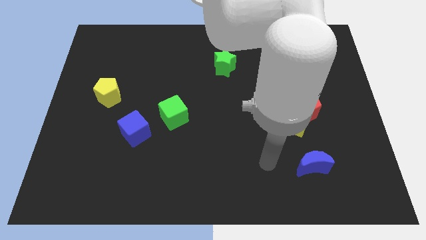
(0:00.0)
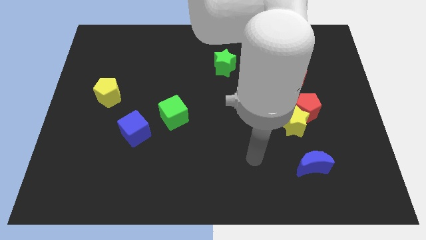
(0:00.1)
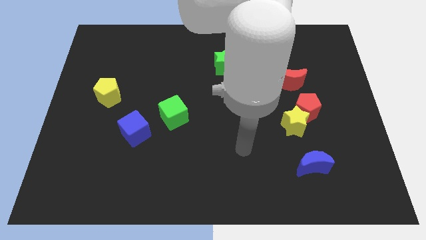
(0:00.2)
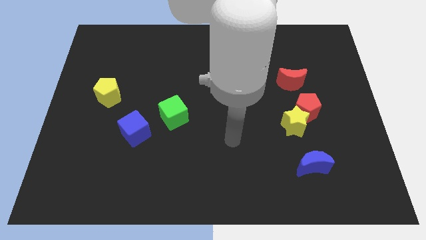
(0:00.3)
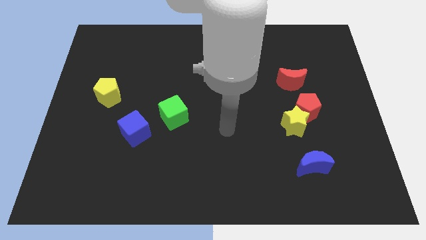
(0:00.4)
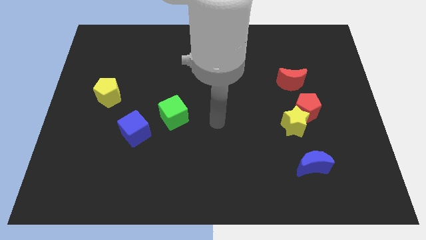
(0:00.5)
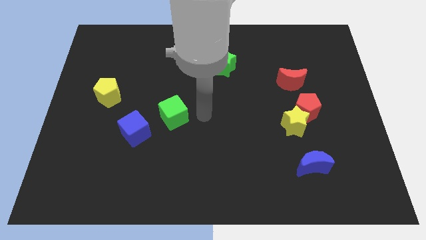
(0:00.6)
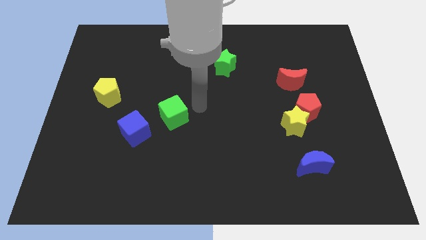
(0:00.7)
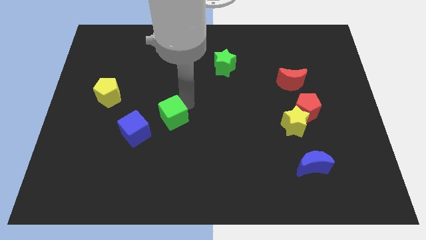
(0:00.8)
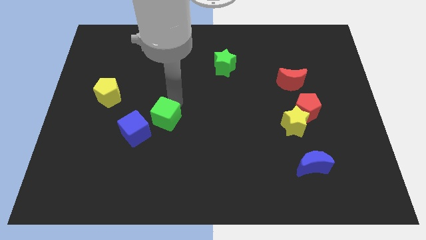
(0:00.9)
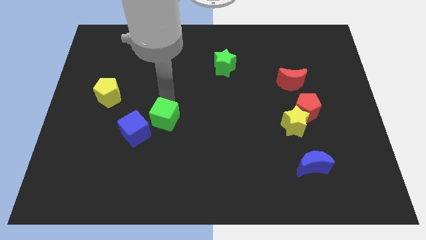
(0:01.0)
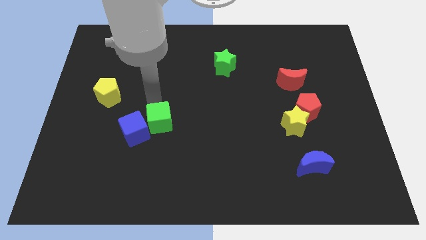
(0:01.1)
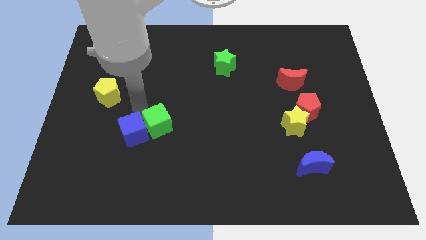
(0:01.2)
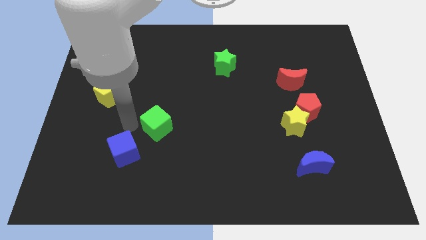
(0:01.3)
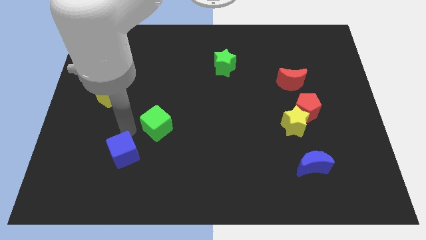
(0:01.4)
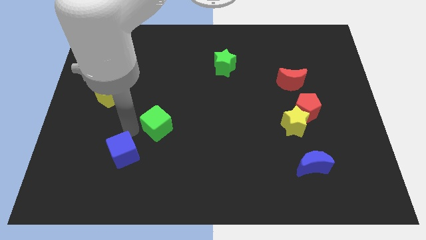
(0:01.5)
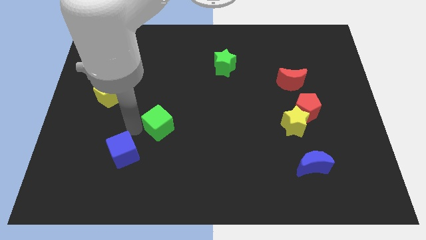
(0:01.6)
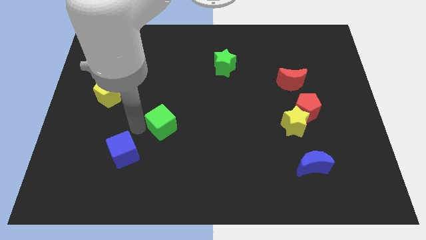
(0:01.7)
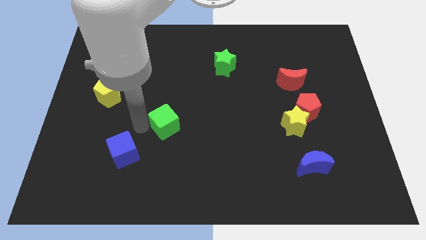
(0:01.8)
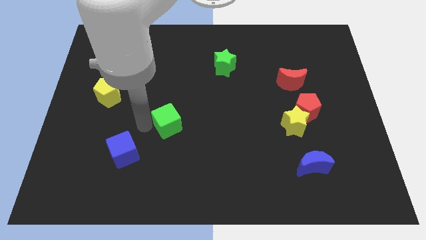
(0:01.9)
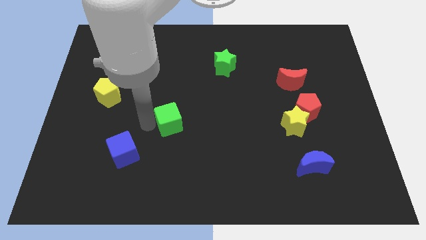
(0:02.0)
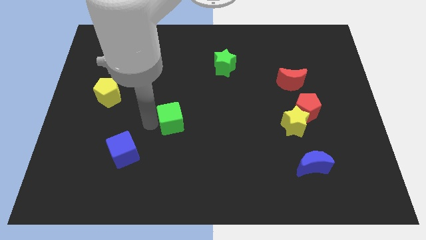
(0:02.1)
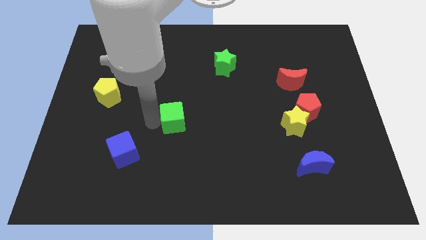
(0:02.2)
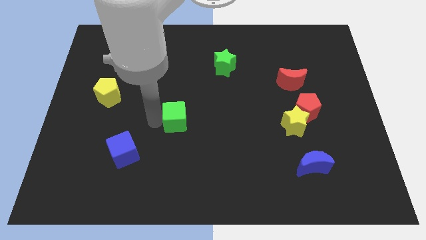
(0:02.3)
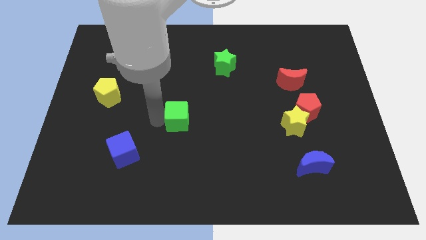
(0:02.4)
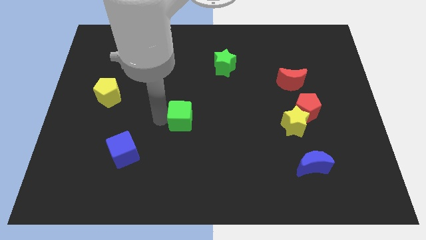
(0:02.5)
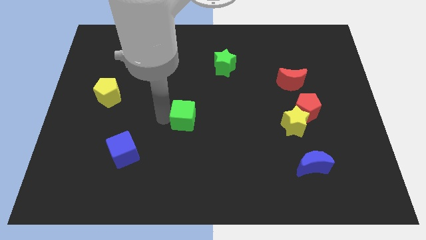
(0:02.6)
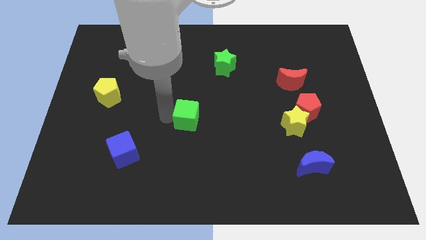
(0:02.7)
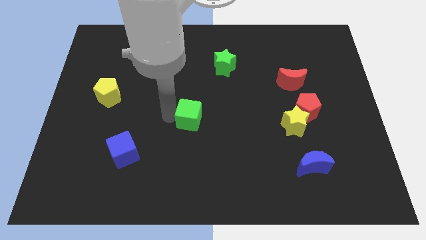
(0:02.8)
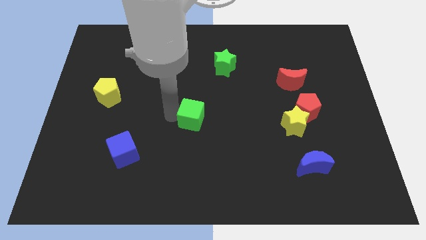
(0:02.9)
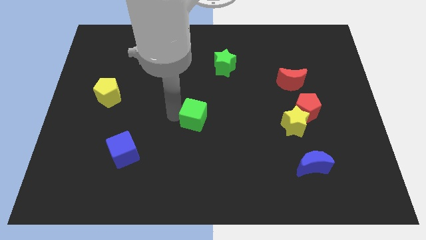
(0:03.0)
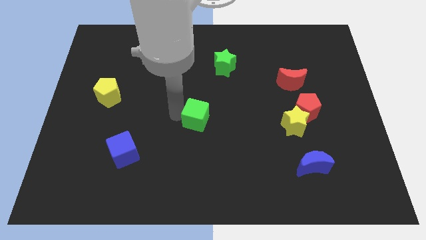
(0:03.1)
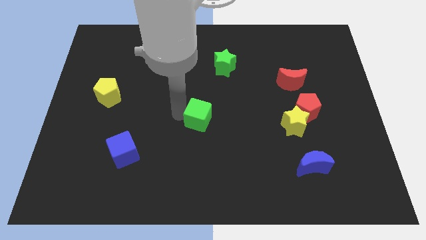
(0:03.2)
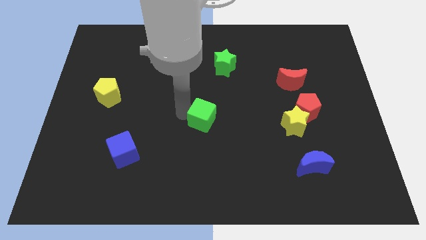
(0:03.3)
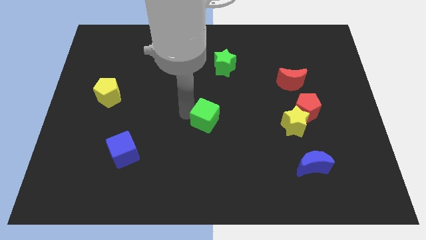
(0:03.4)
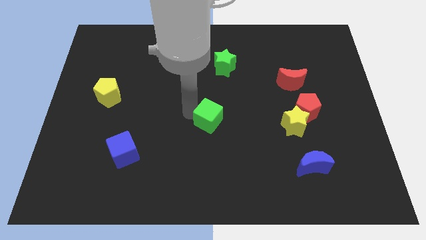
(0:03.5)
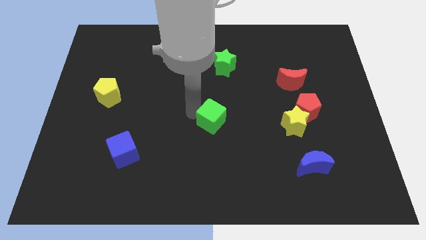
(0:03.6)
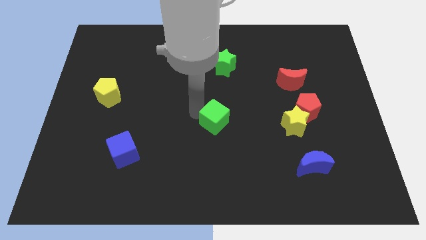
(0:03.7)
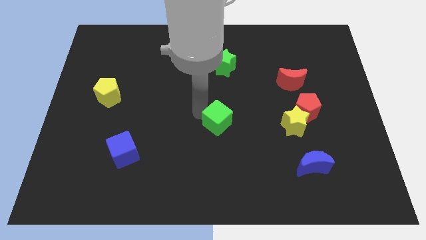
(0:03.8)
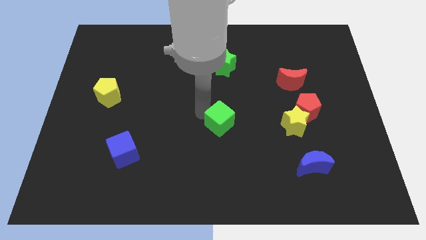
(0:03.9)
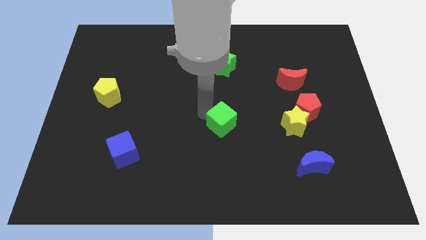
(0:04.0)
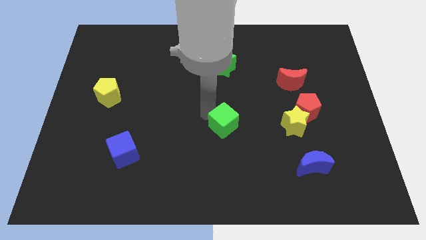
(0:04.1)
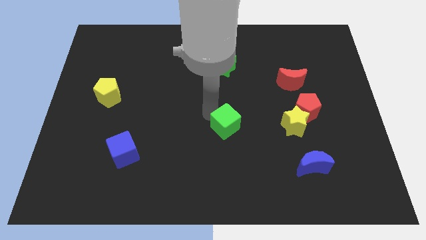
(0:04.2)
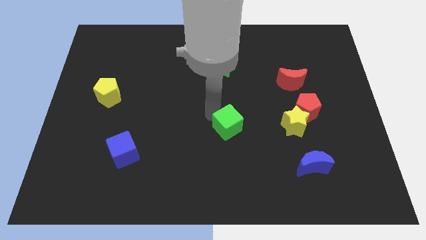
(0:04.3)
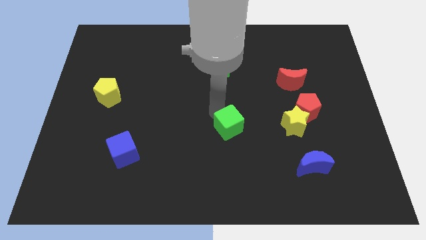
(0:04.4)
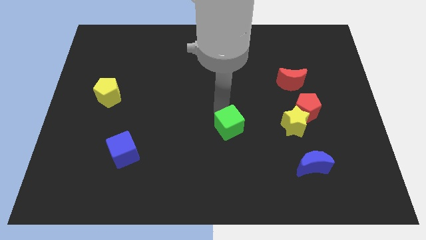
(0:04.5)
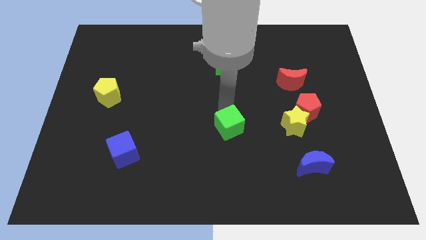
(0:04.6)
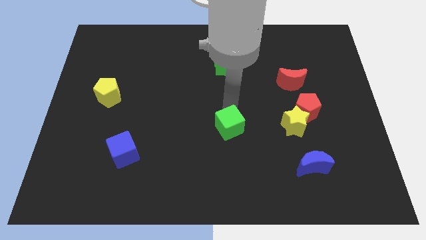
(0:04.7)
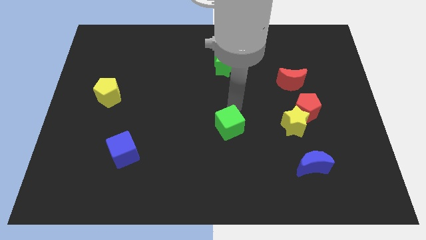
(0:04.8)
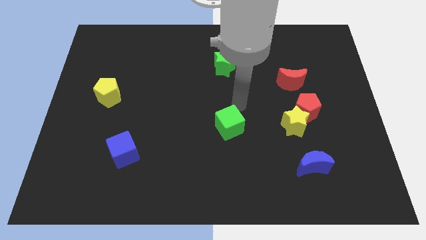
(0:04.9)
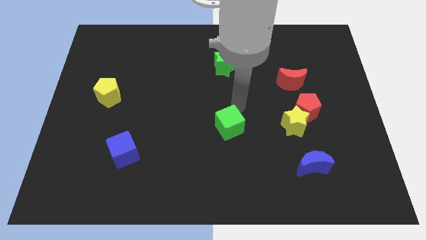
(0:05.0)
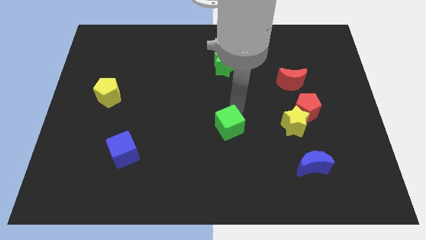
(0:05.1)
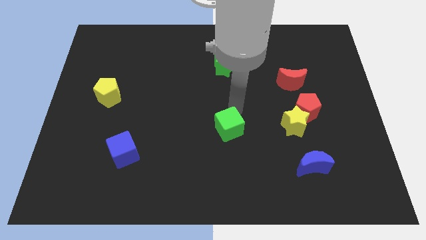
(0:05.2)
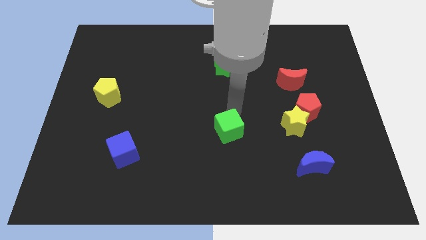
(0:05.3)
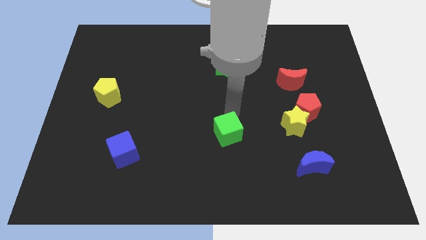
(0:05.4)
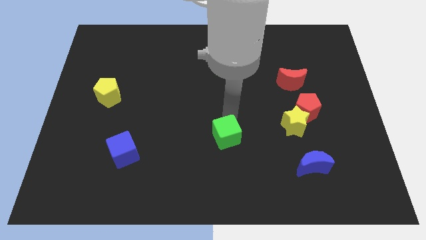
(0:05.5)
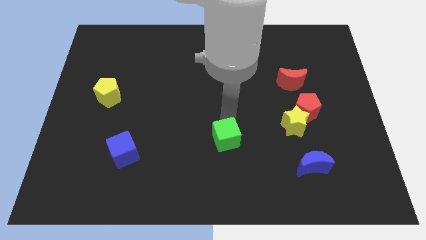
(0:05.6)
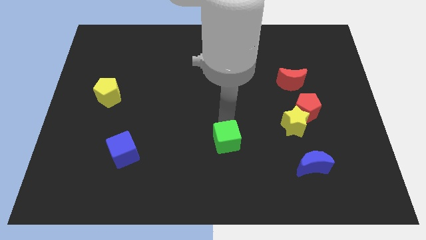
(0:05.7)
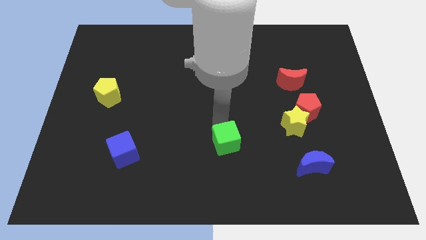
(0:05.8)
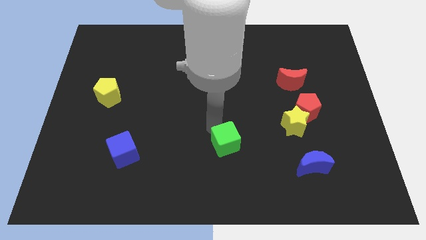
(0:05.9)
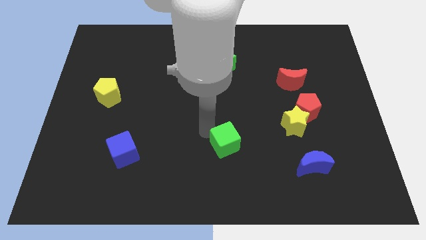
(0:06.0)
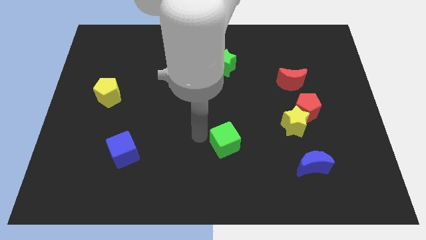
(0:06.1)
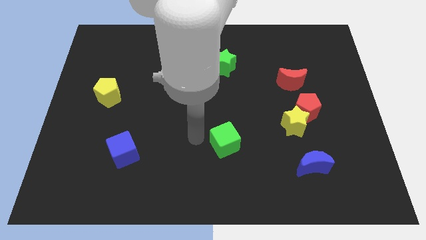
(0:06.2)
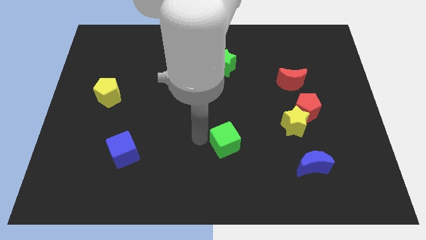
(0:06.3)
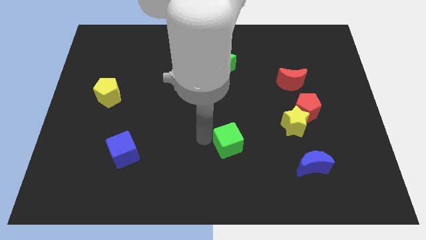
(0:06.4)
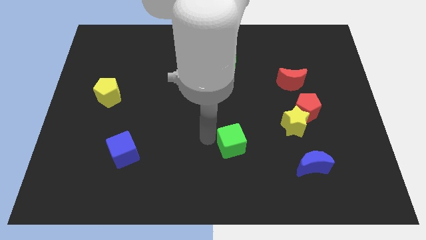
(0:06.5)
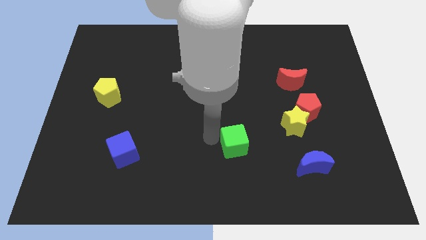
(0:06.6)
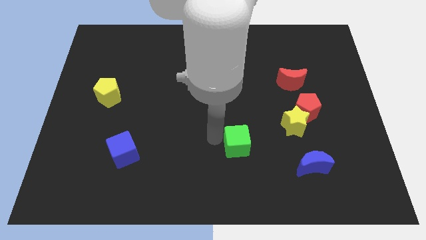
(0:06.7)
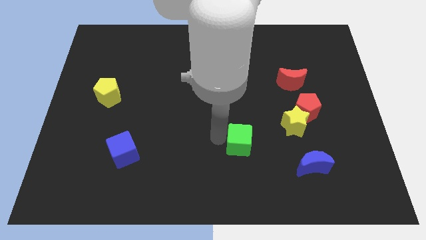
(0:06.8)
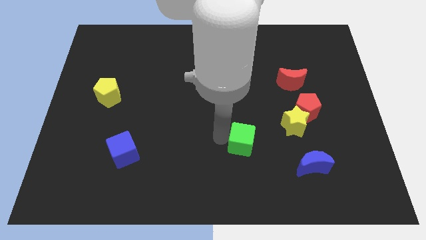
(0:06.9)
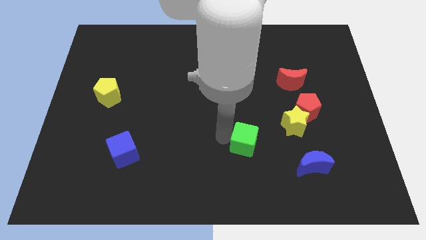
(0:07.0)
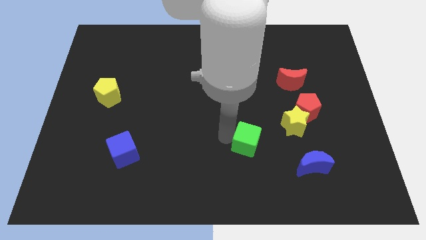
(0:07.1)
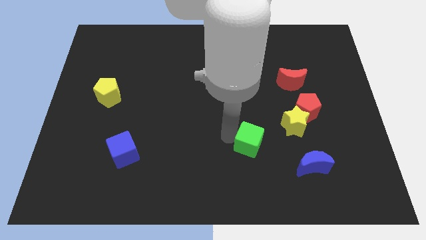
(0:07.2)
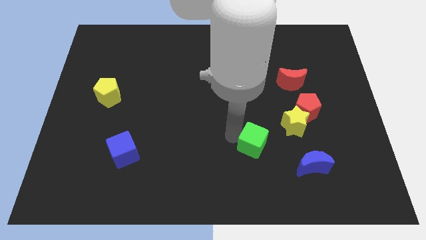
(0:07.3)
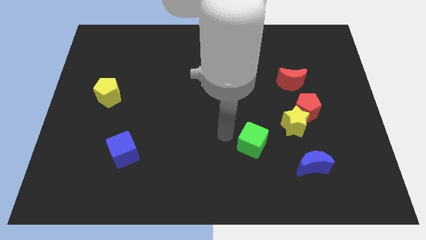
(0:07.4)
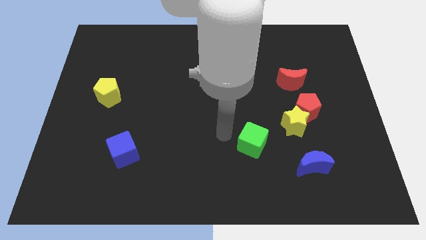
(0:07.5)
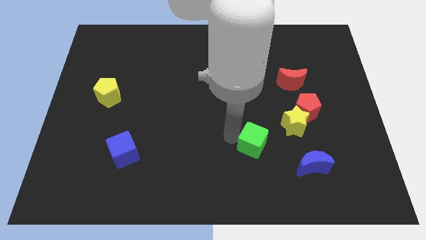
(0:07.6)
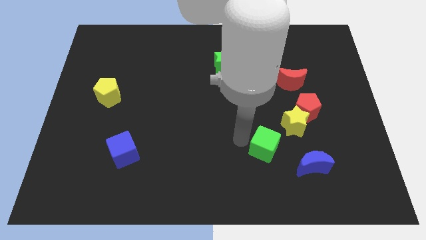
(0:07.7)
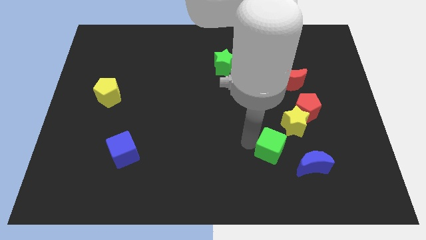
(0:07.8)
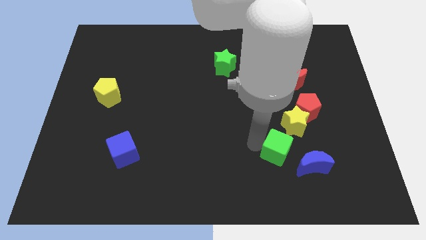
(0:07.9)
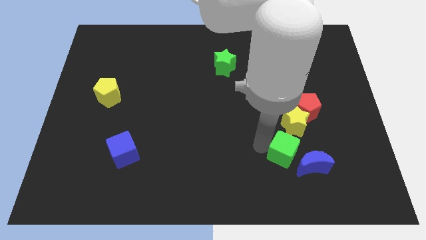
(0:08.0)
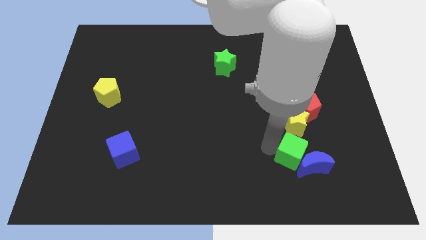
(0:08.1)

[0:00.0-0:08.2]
put the green cube towards the blue moon
